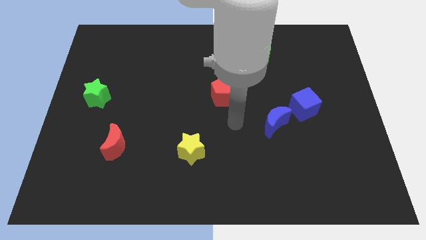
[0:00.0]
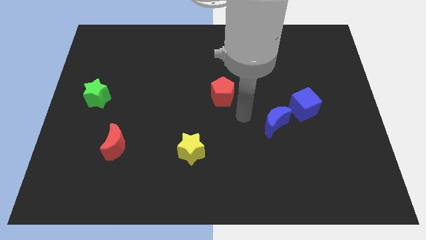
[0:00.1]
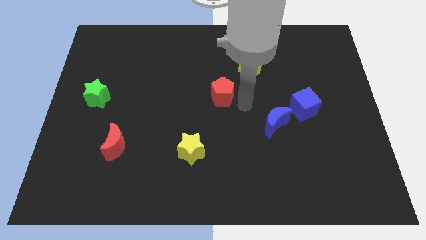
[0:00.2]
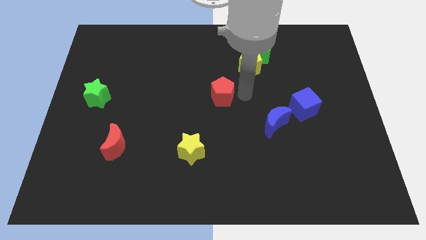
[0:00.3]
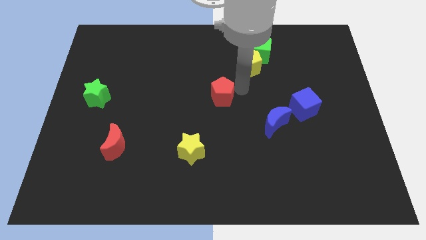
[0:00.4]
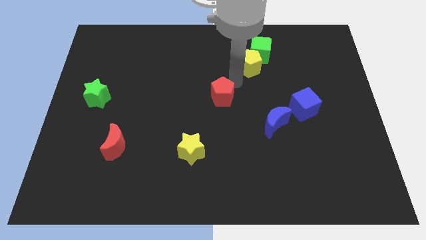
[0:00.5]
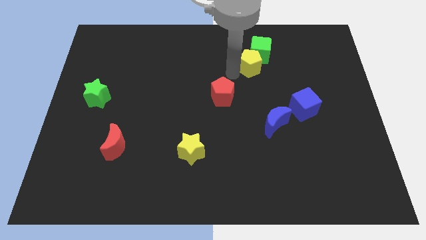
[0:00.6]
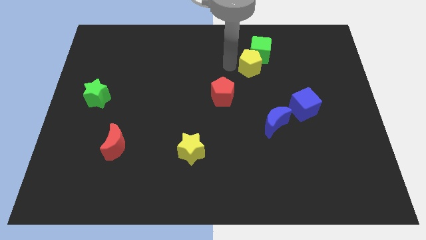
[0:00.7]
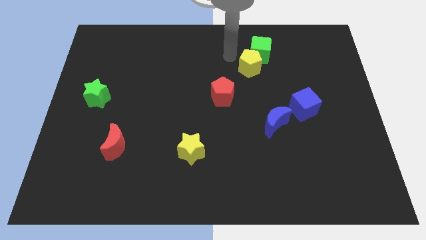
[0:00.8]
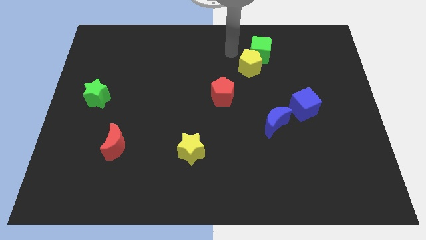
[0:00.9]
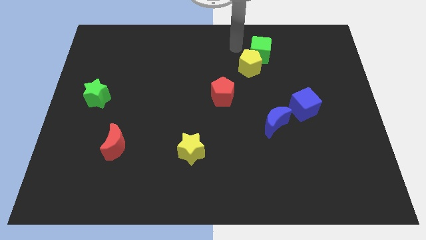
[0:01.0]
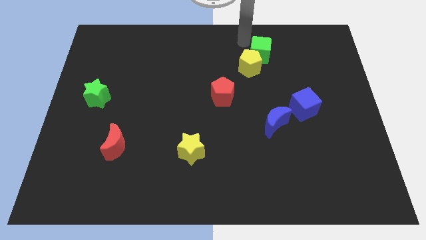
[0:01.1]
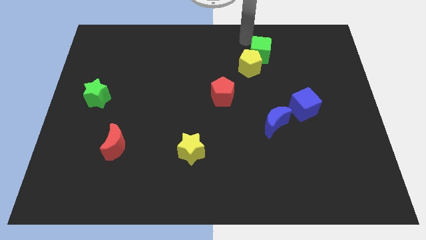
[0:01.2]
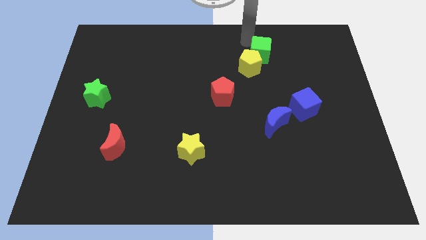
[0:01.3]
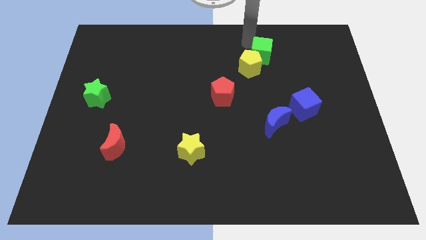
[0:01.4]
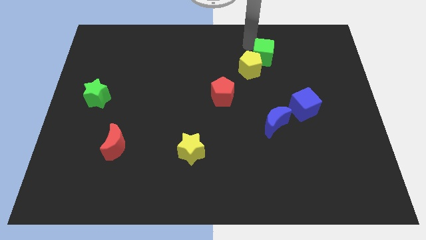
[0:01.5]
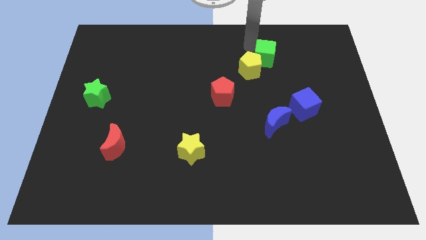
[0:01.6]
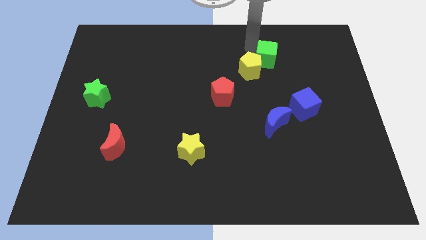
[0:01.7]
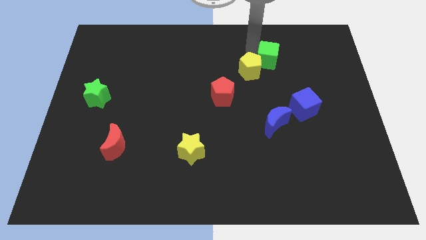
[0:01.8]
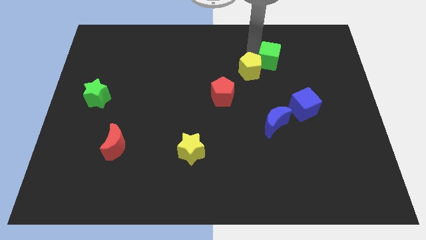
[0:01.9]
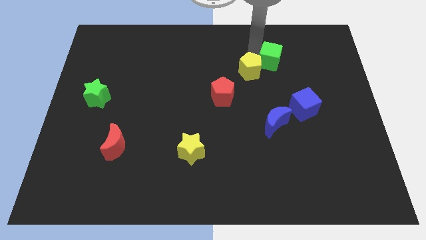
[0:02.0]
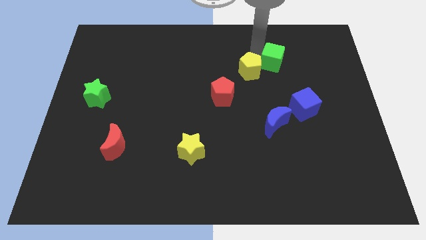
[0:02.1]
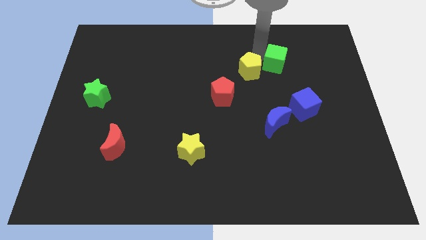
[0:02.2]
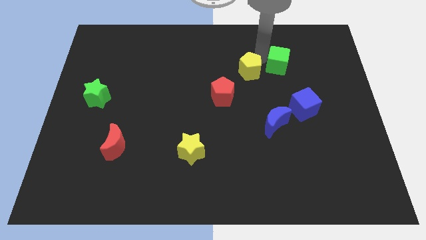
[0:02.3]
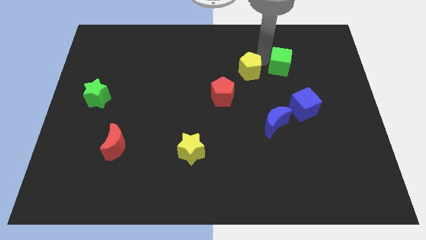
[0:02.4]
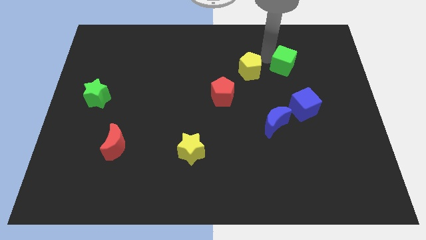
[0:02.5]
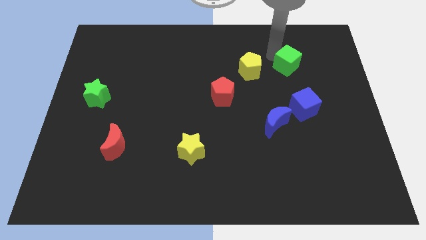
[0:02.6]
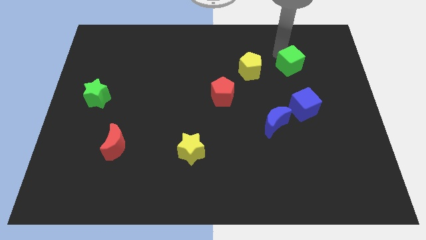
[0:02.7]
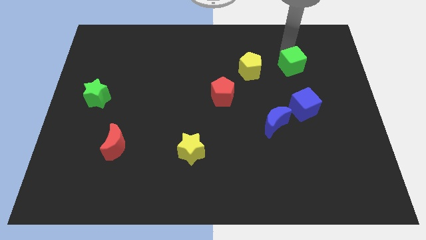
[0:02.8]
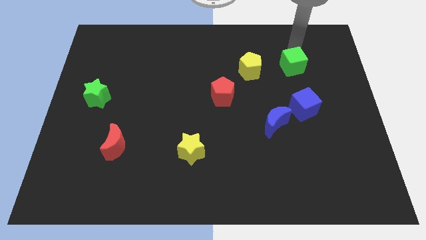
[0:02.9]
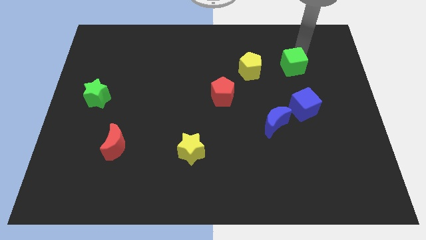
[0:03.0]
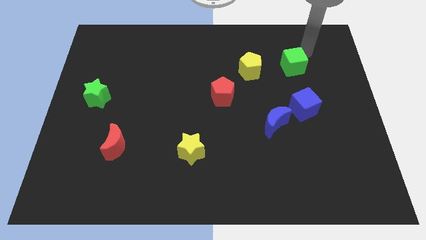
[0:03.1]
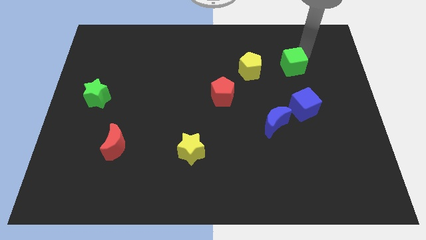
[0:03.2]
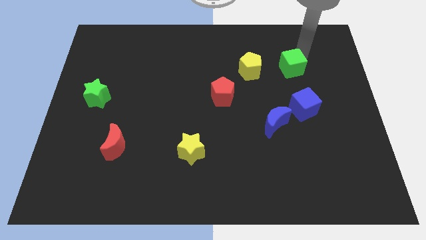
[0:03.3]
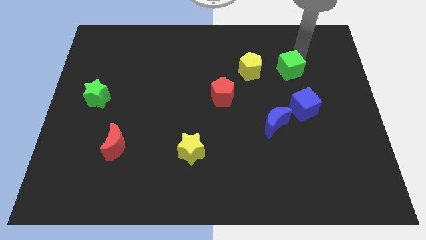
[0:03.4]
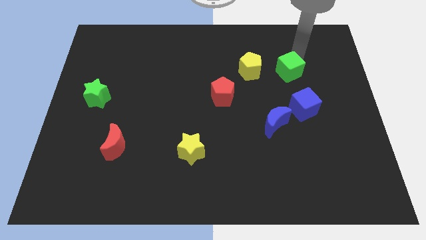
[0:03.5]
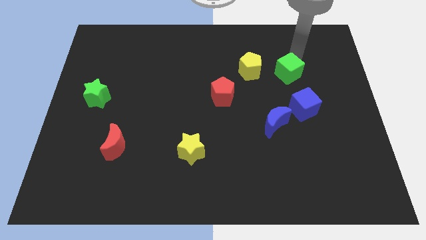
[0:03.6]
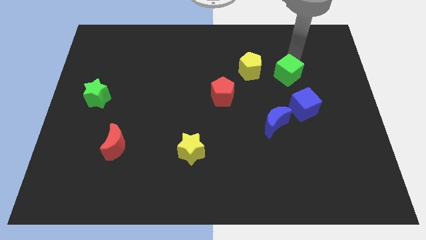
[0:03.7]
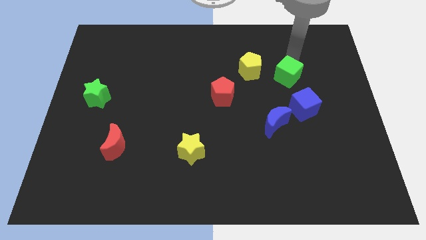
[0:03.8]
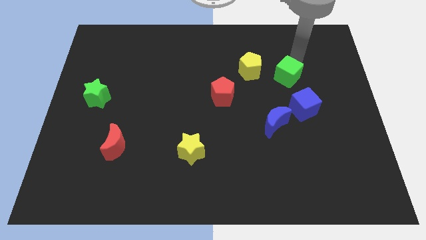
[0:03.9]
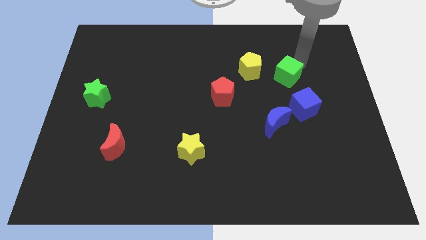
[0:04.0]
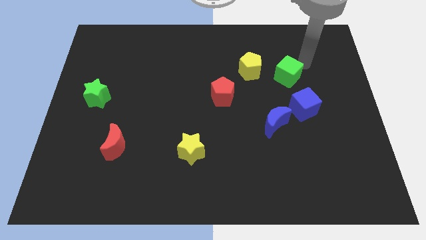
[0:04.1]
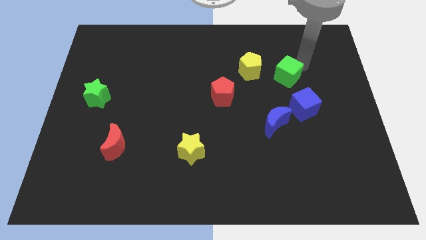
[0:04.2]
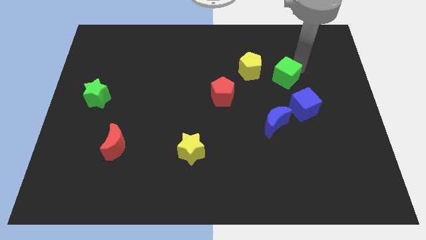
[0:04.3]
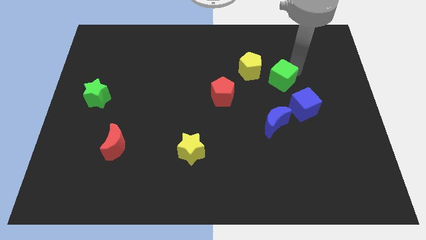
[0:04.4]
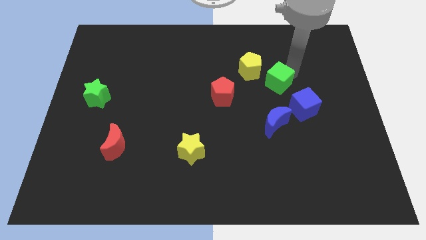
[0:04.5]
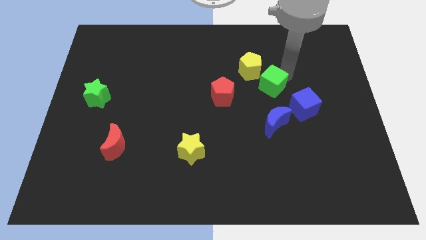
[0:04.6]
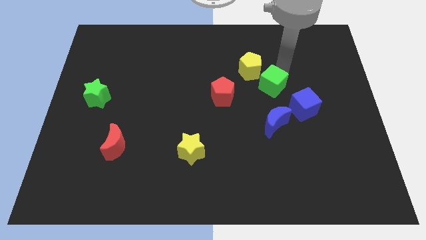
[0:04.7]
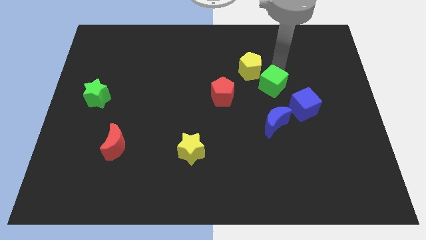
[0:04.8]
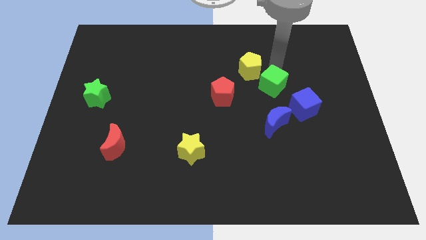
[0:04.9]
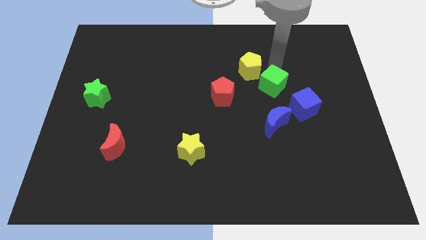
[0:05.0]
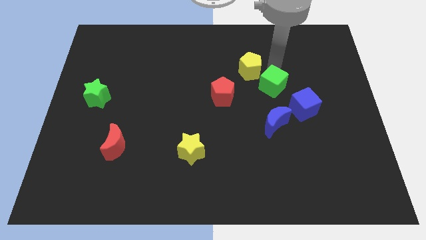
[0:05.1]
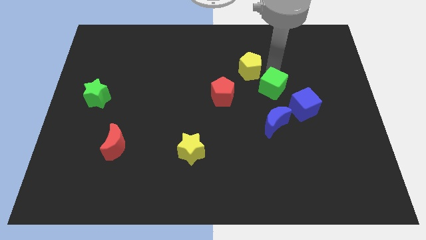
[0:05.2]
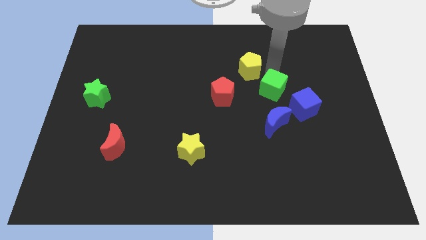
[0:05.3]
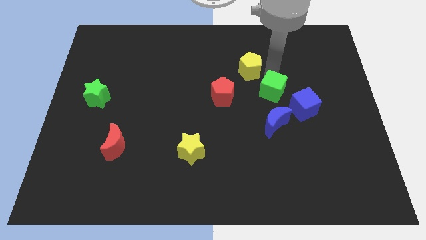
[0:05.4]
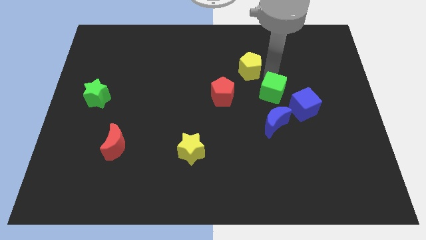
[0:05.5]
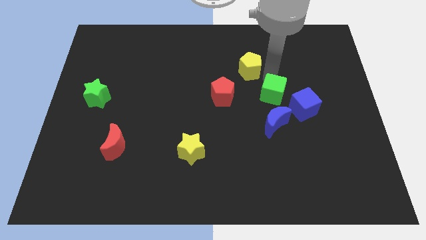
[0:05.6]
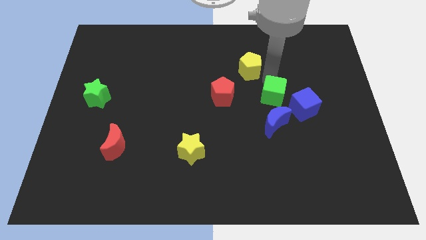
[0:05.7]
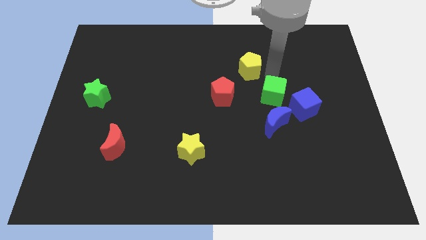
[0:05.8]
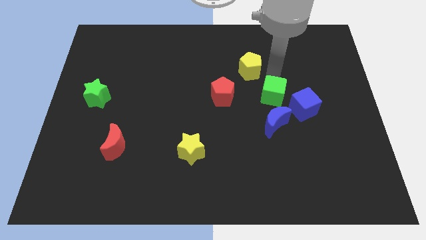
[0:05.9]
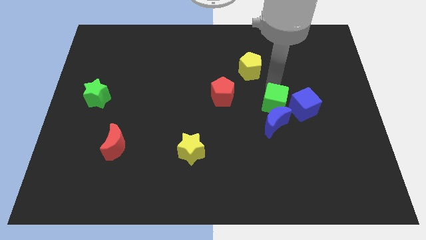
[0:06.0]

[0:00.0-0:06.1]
push the green cube close to the blue moon

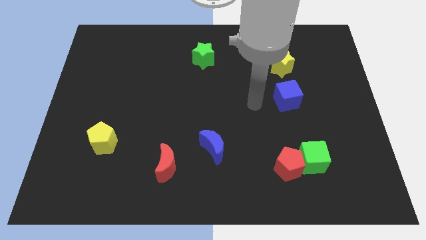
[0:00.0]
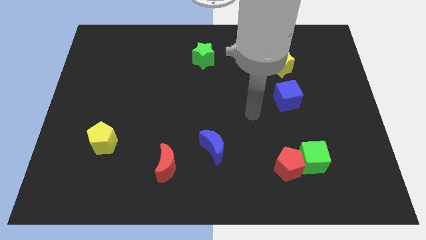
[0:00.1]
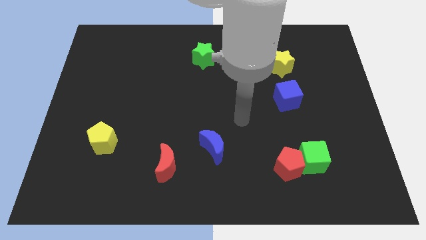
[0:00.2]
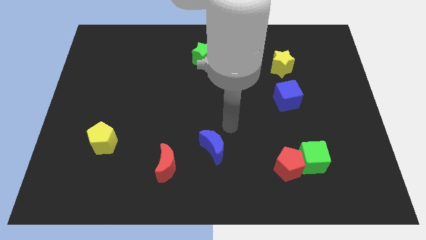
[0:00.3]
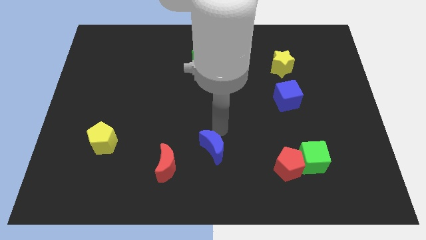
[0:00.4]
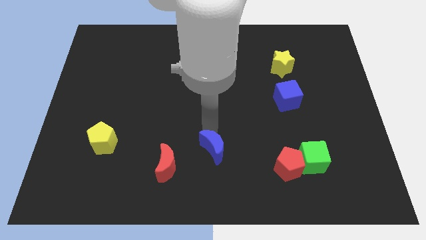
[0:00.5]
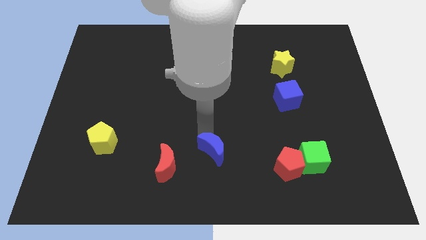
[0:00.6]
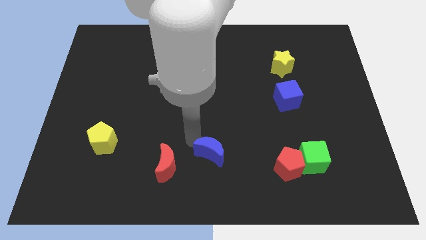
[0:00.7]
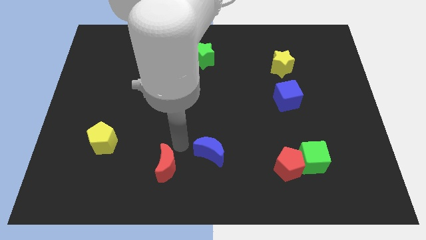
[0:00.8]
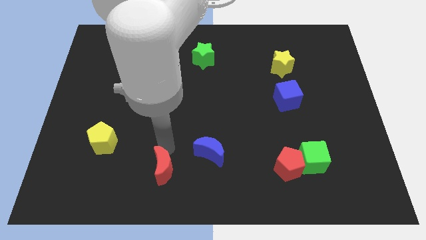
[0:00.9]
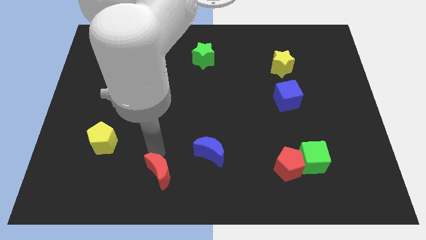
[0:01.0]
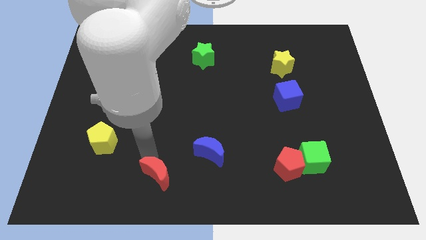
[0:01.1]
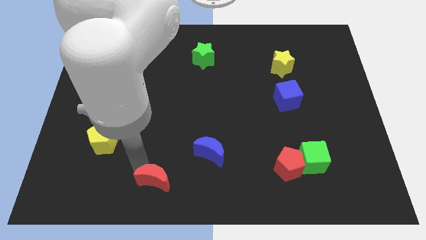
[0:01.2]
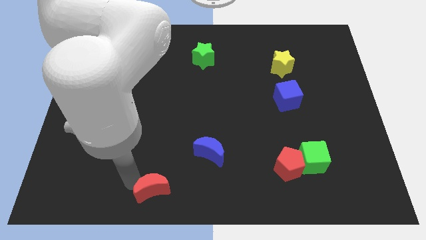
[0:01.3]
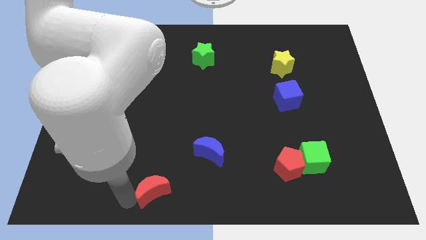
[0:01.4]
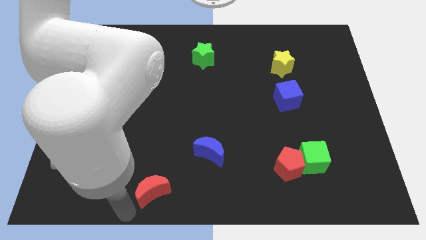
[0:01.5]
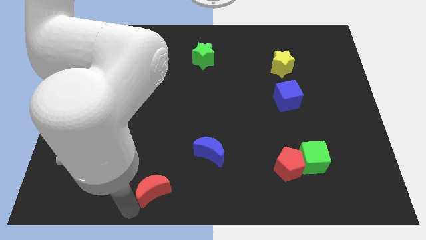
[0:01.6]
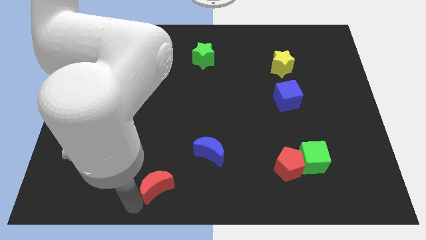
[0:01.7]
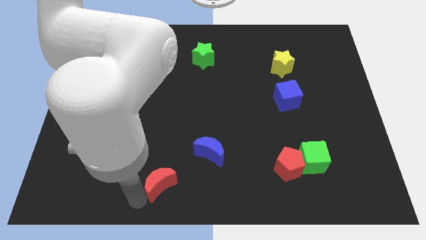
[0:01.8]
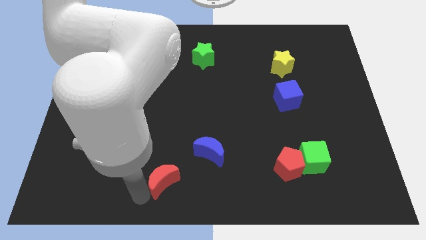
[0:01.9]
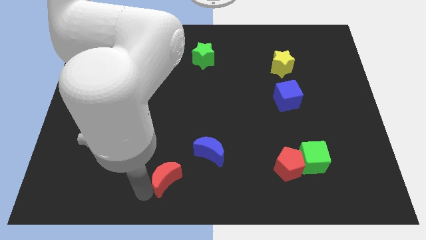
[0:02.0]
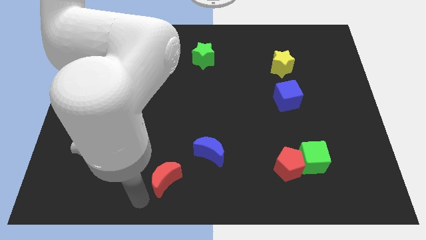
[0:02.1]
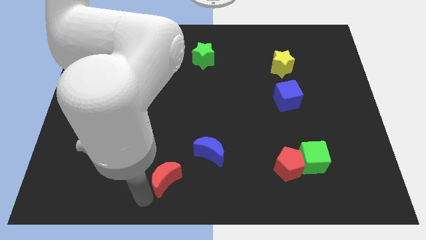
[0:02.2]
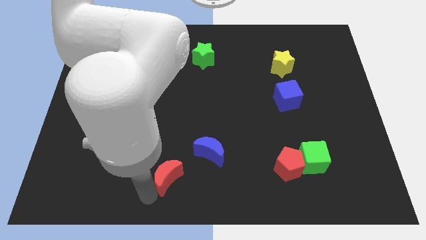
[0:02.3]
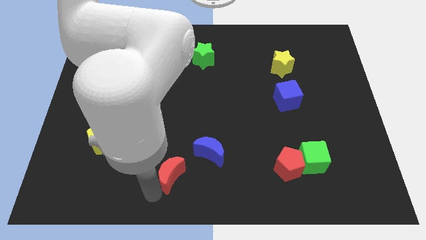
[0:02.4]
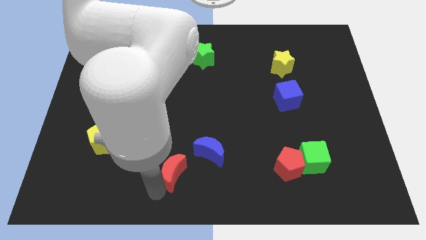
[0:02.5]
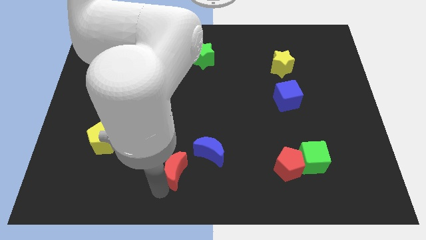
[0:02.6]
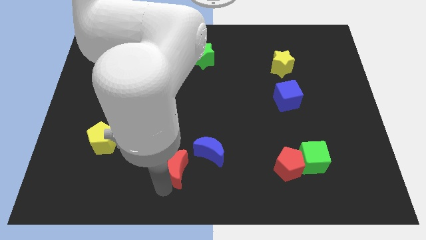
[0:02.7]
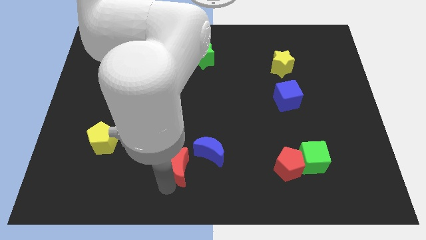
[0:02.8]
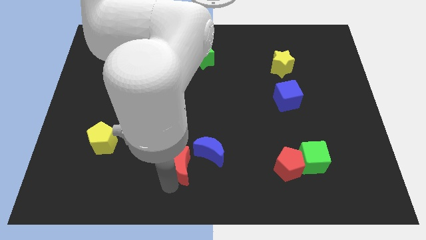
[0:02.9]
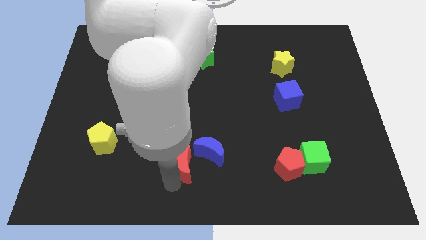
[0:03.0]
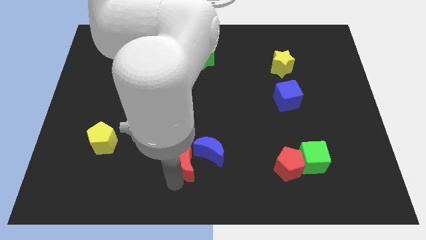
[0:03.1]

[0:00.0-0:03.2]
put the red moon next to the blue moon
